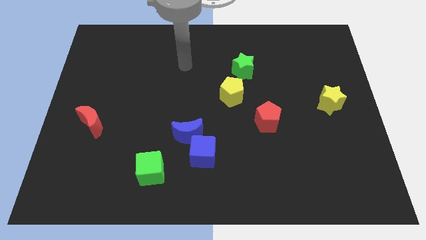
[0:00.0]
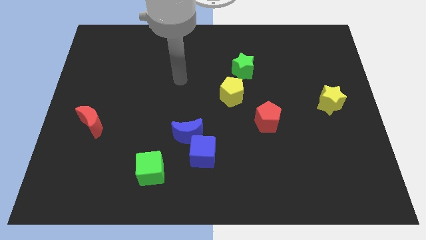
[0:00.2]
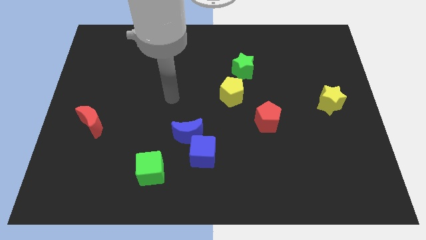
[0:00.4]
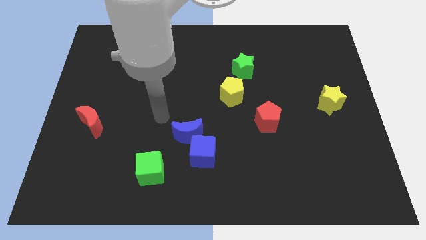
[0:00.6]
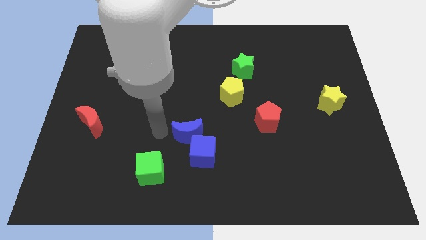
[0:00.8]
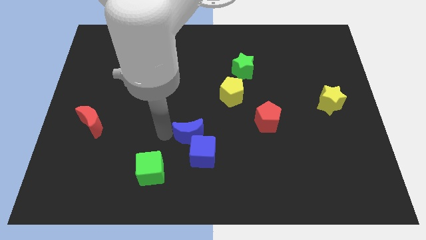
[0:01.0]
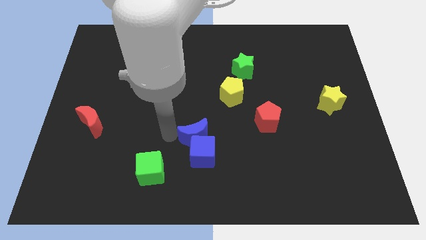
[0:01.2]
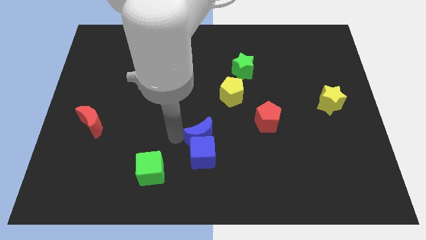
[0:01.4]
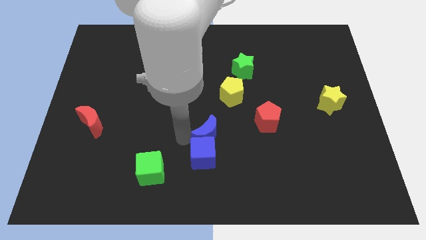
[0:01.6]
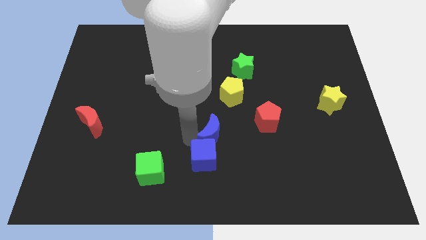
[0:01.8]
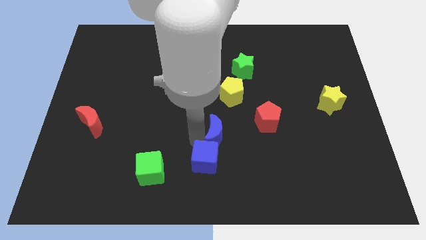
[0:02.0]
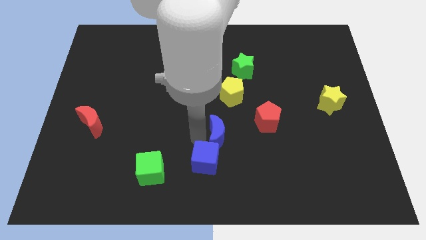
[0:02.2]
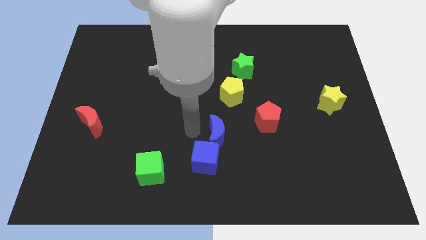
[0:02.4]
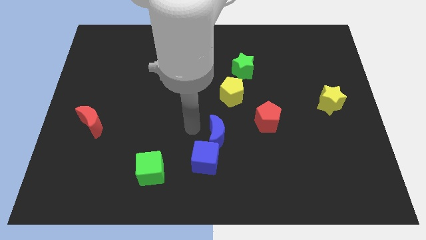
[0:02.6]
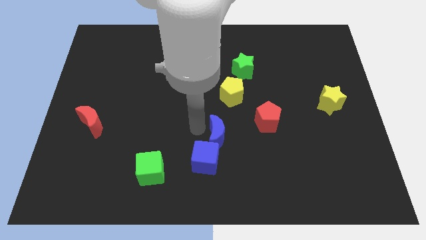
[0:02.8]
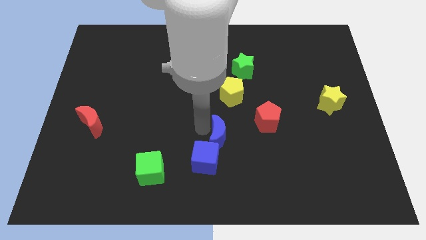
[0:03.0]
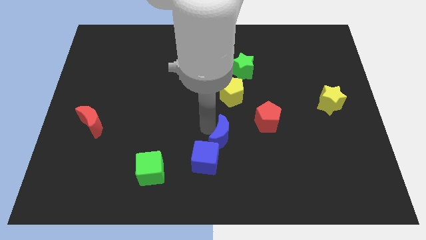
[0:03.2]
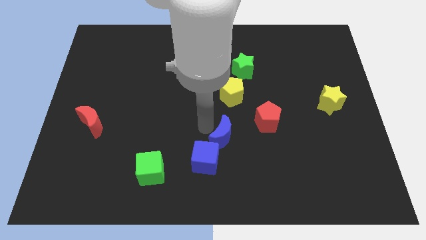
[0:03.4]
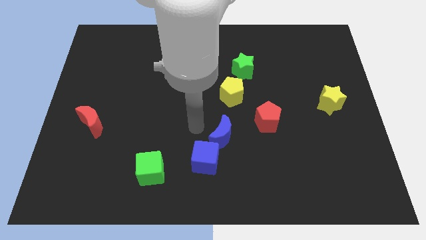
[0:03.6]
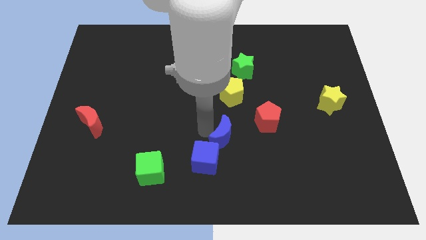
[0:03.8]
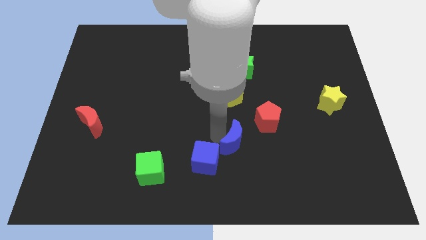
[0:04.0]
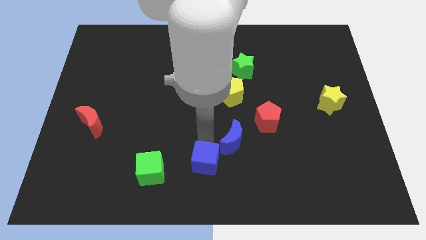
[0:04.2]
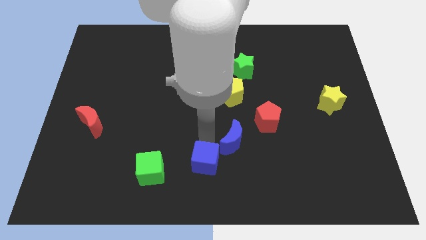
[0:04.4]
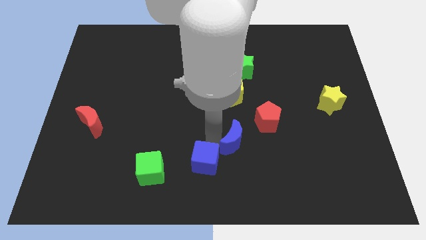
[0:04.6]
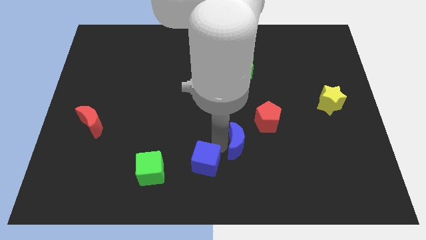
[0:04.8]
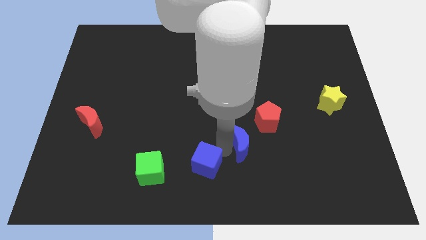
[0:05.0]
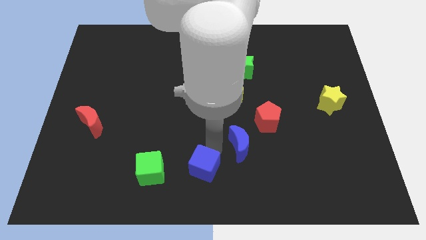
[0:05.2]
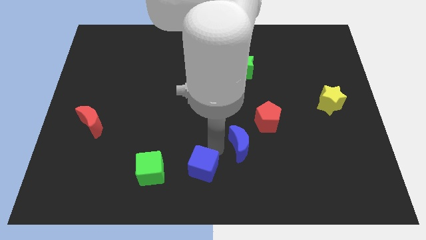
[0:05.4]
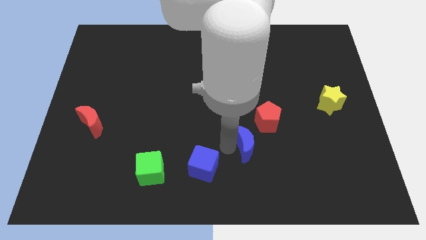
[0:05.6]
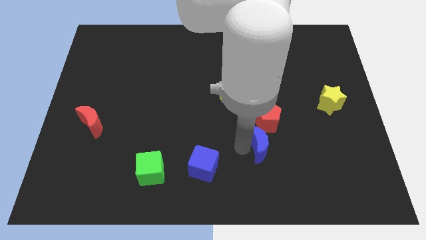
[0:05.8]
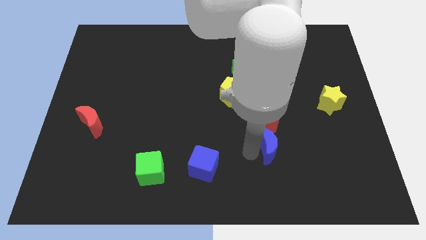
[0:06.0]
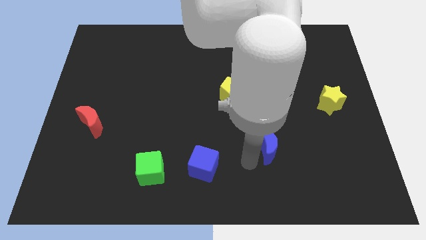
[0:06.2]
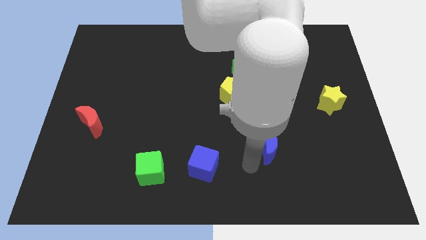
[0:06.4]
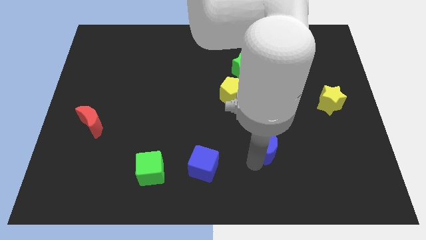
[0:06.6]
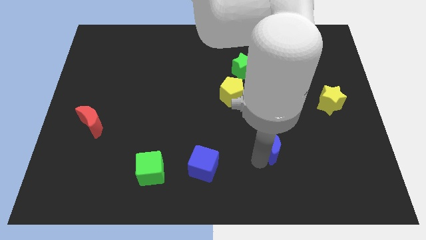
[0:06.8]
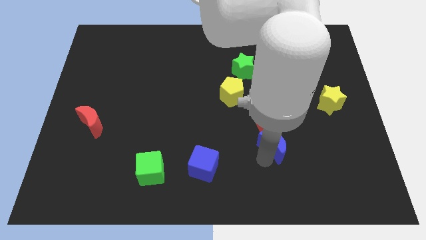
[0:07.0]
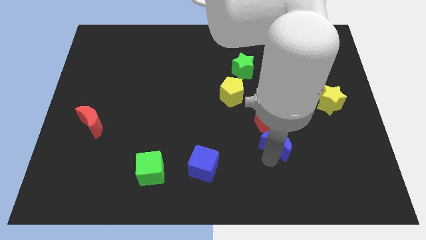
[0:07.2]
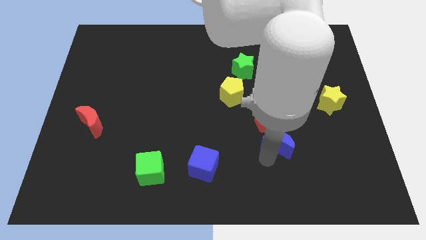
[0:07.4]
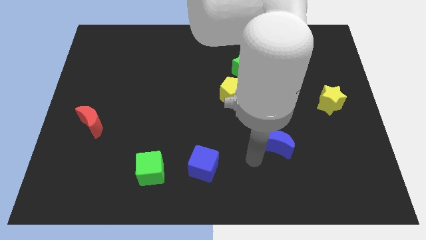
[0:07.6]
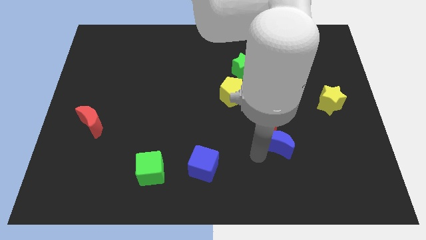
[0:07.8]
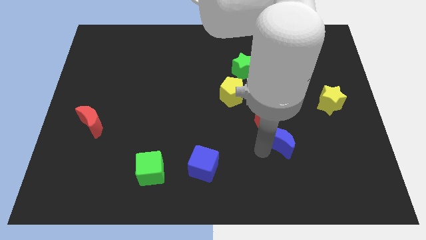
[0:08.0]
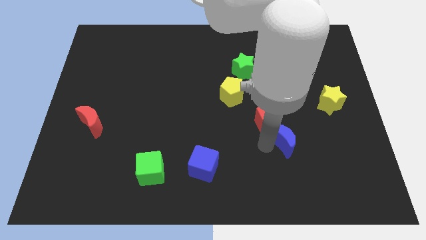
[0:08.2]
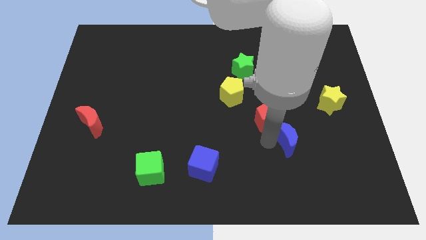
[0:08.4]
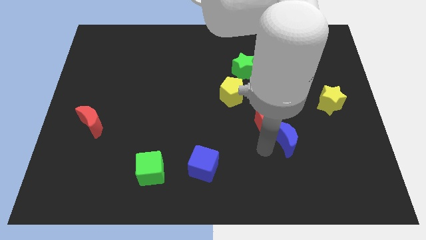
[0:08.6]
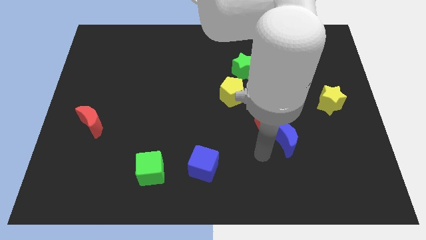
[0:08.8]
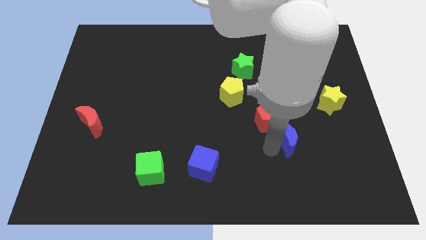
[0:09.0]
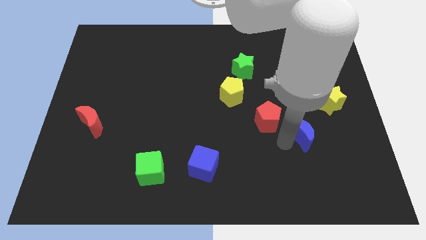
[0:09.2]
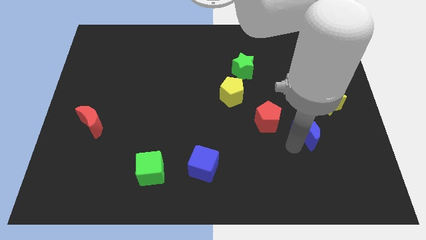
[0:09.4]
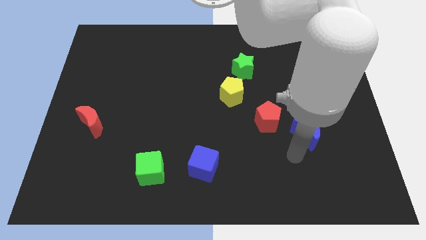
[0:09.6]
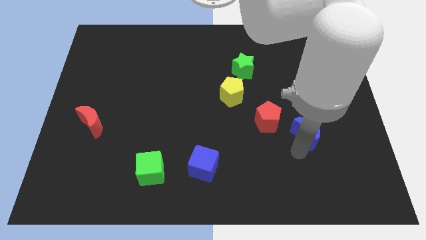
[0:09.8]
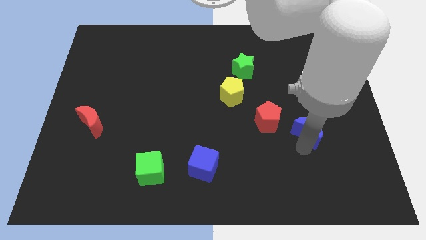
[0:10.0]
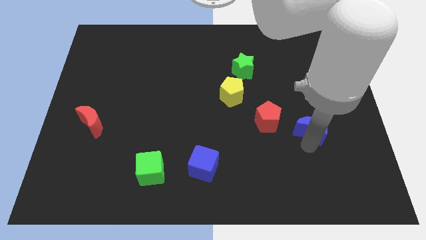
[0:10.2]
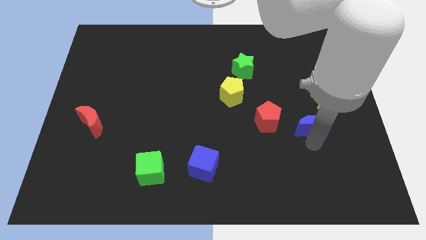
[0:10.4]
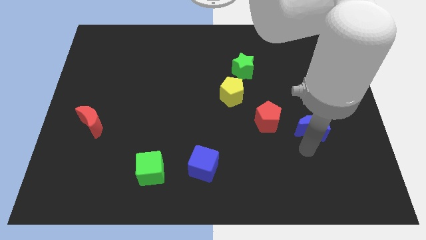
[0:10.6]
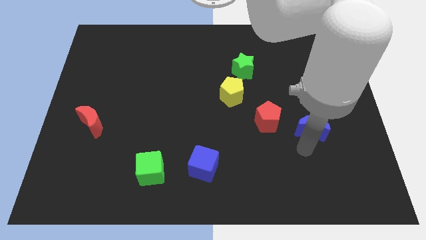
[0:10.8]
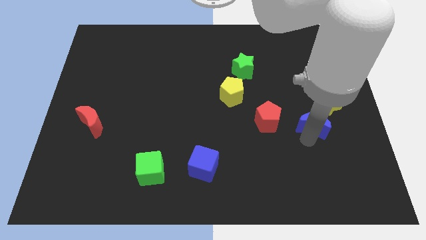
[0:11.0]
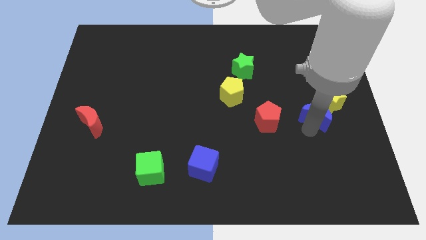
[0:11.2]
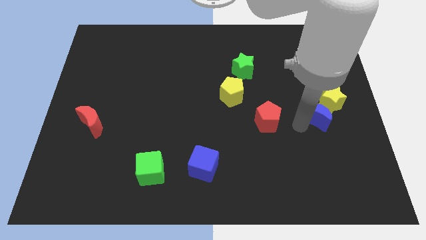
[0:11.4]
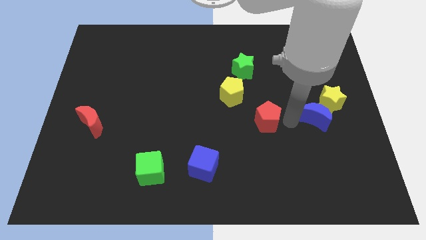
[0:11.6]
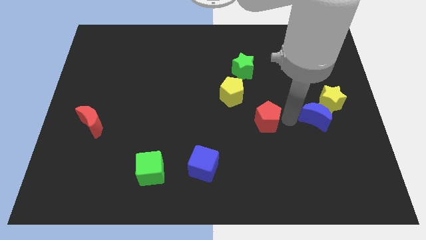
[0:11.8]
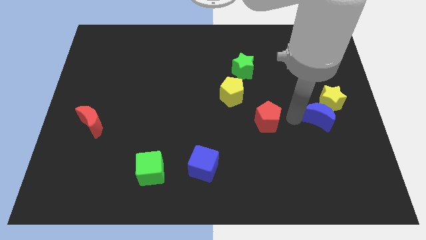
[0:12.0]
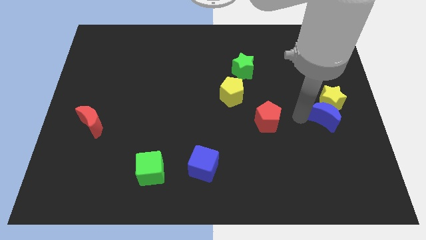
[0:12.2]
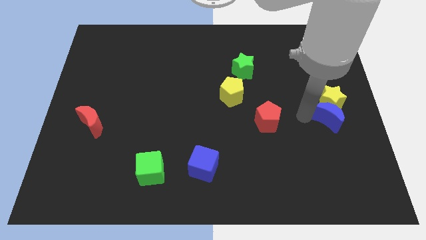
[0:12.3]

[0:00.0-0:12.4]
push the blue moon to the right side

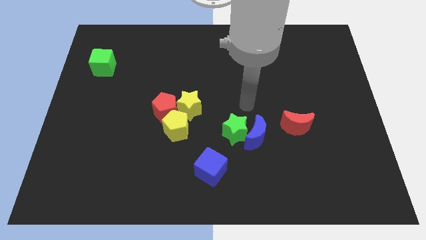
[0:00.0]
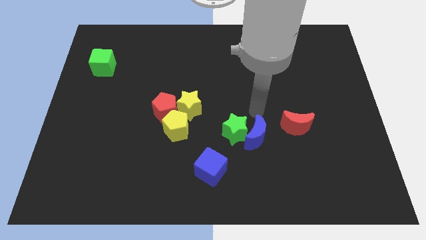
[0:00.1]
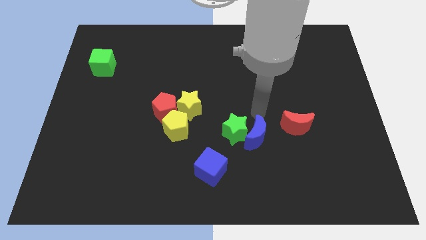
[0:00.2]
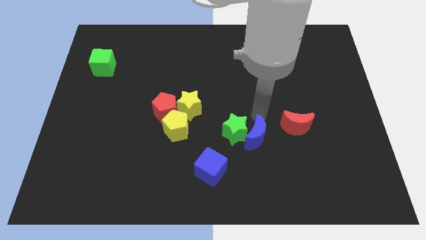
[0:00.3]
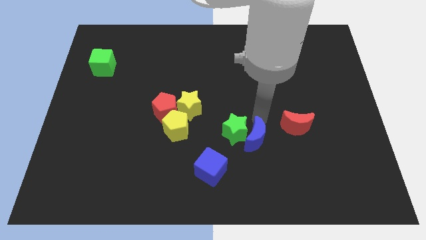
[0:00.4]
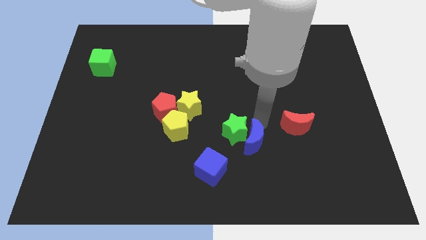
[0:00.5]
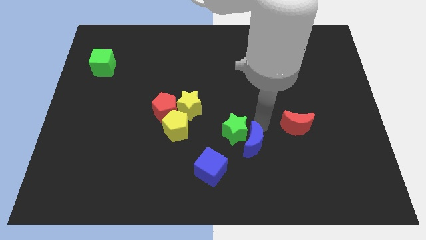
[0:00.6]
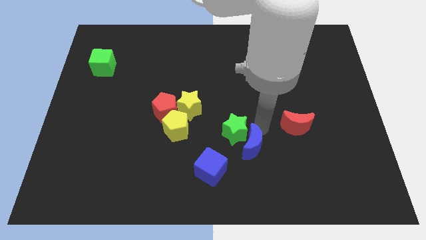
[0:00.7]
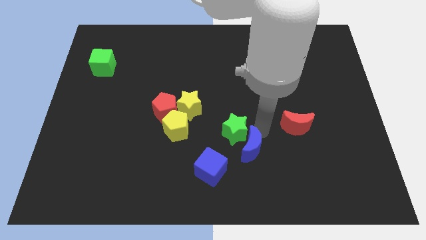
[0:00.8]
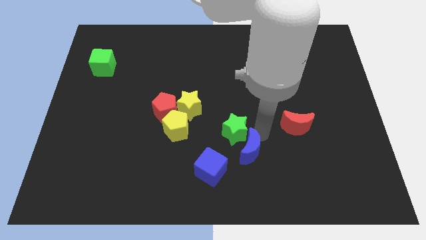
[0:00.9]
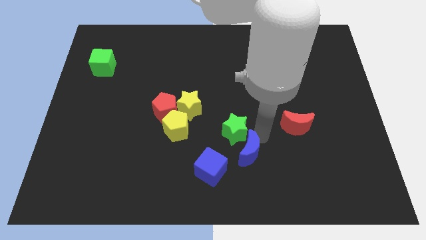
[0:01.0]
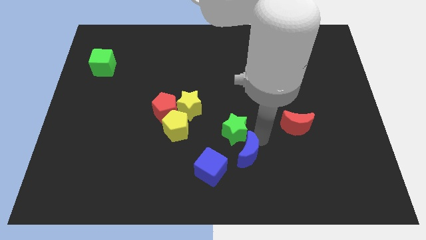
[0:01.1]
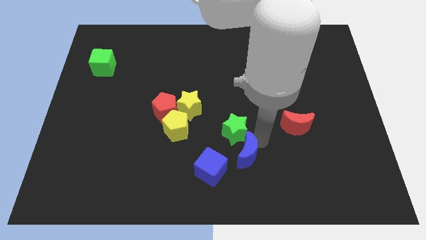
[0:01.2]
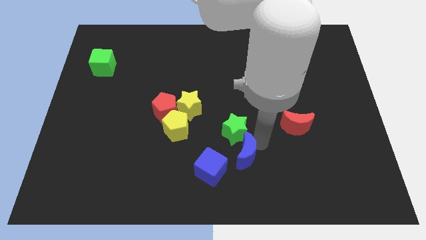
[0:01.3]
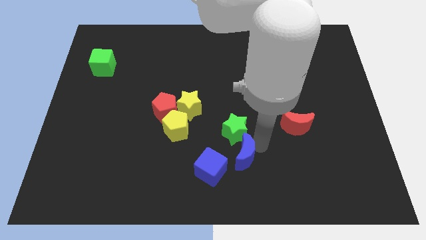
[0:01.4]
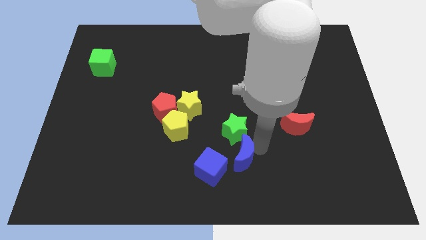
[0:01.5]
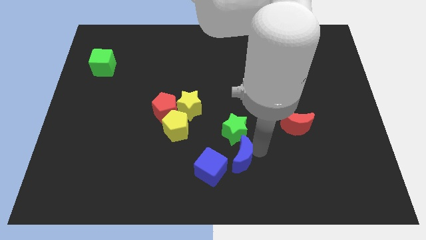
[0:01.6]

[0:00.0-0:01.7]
move the blue moon to the bottom
